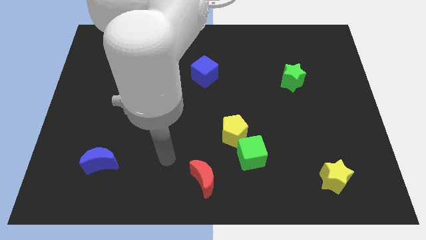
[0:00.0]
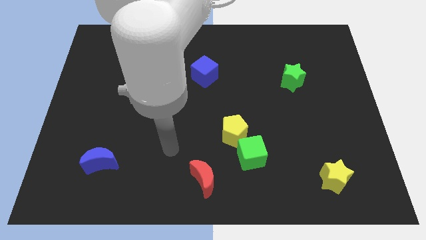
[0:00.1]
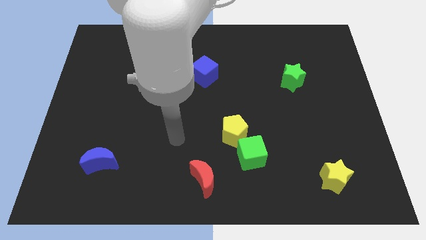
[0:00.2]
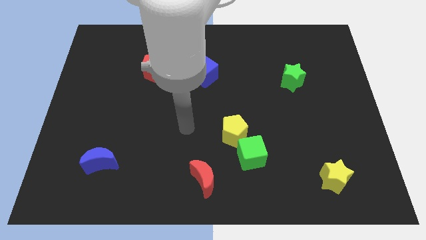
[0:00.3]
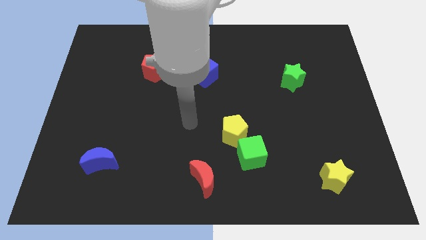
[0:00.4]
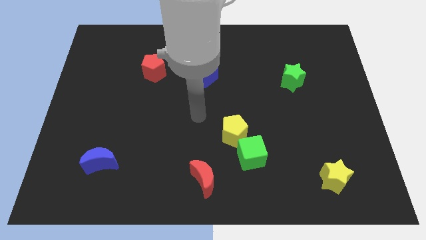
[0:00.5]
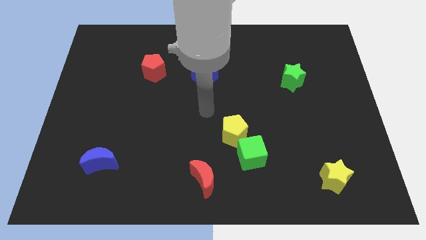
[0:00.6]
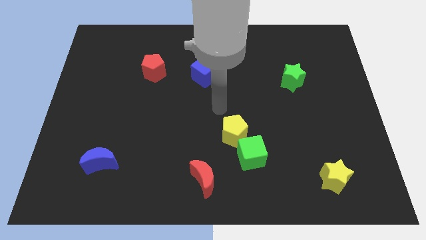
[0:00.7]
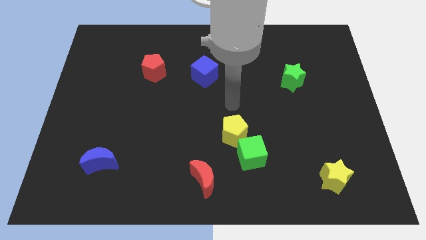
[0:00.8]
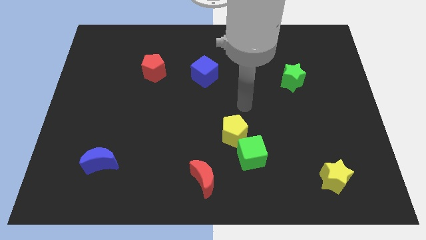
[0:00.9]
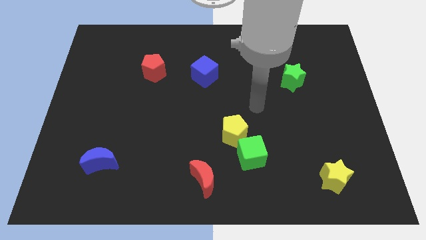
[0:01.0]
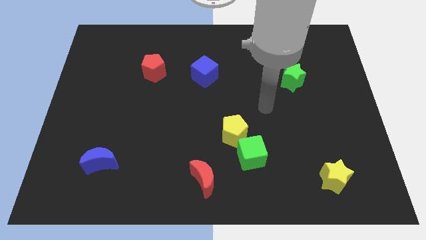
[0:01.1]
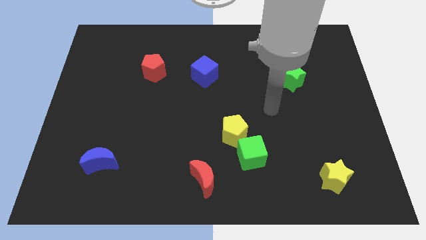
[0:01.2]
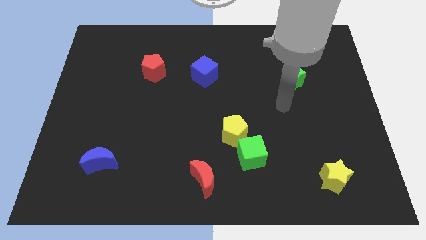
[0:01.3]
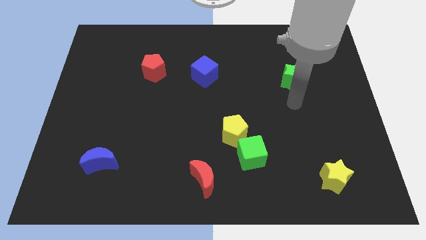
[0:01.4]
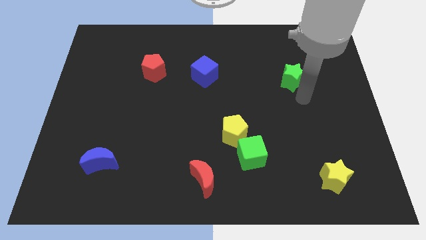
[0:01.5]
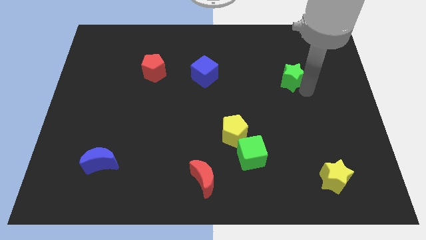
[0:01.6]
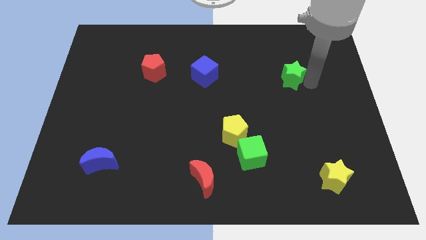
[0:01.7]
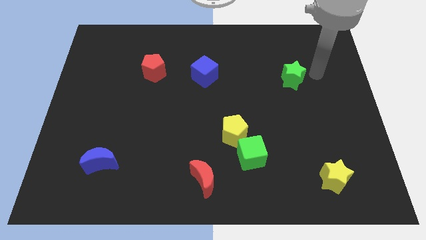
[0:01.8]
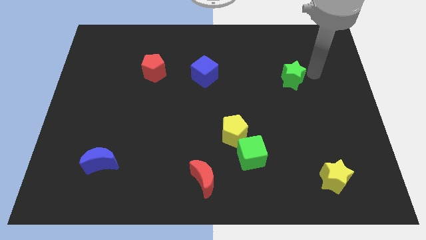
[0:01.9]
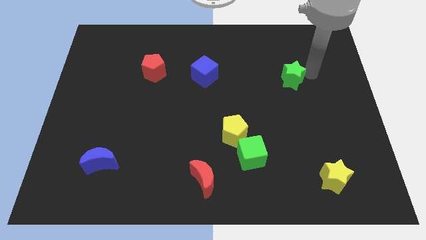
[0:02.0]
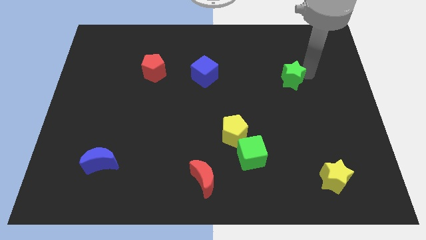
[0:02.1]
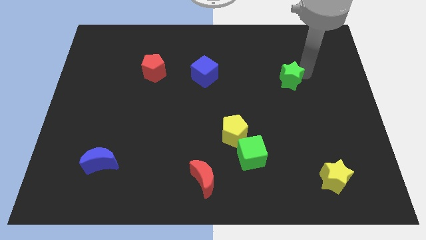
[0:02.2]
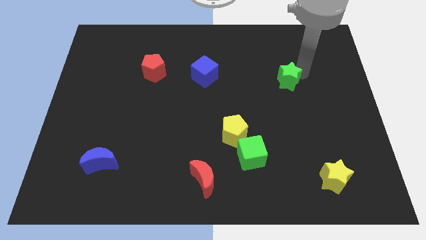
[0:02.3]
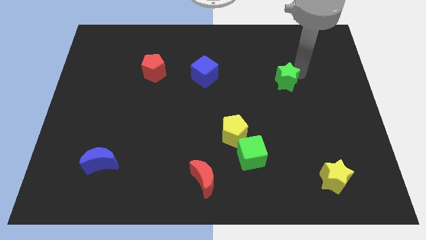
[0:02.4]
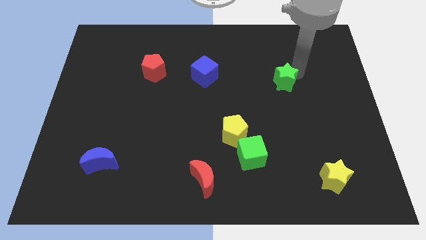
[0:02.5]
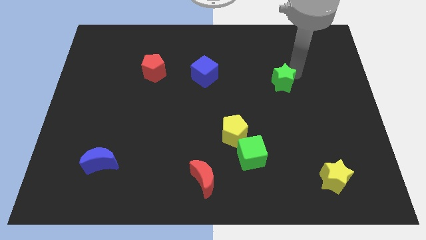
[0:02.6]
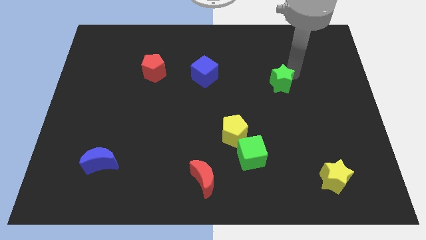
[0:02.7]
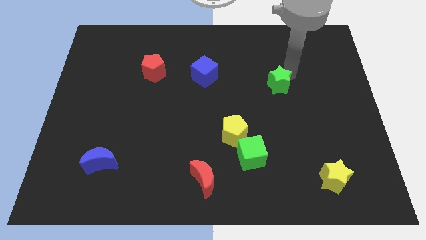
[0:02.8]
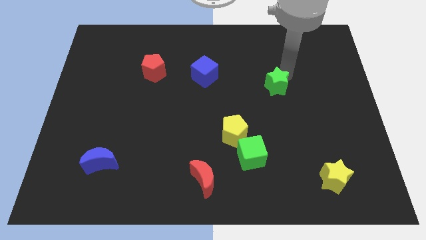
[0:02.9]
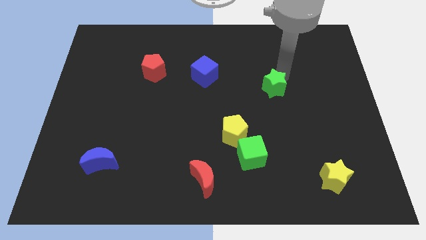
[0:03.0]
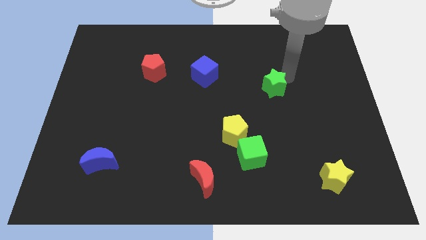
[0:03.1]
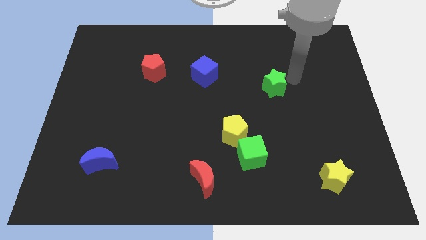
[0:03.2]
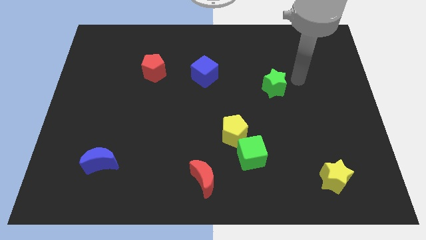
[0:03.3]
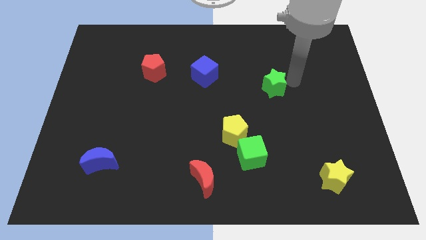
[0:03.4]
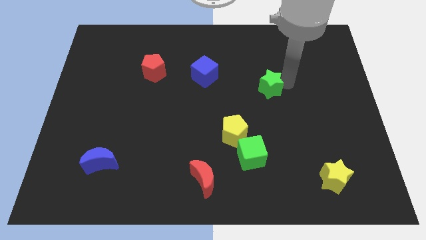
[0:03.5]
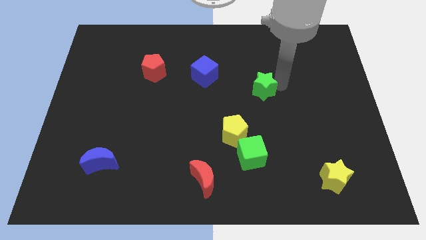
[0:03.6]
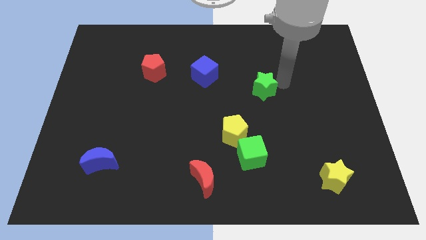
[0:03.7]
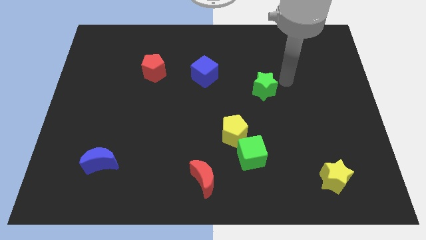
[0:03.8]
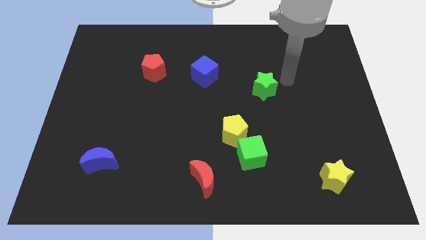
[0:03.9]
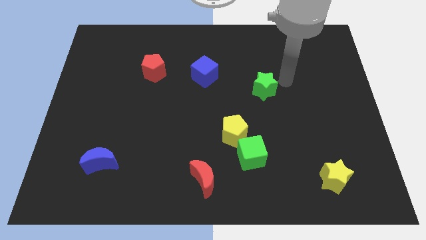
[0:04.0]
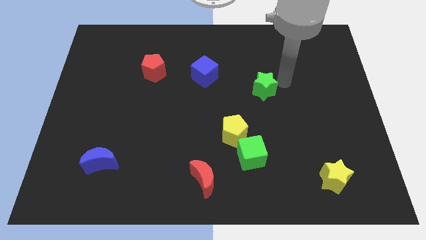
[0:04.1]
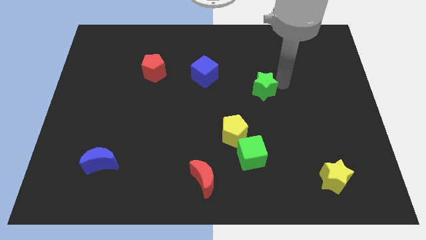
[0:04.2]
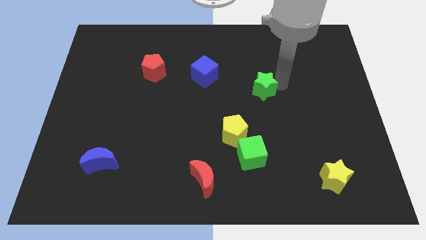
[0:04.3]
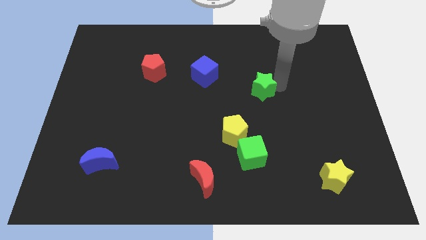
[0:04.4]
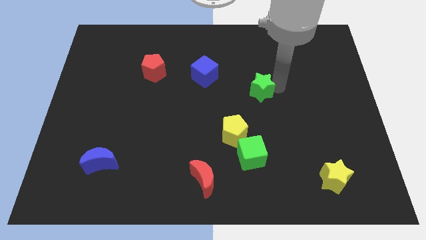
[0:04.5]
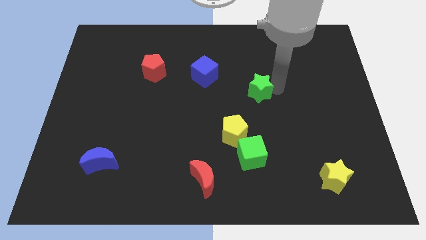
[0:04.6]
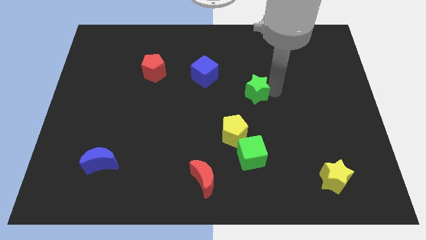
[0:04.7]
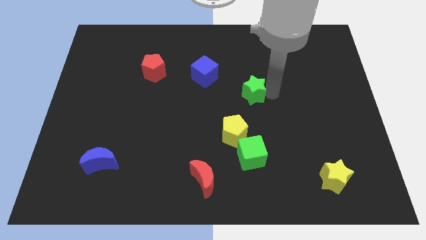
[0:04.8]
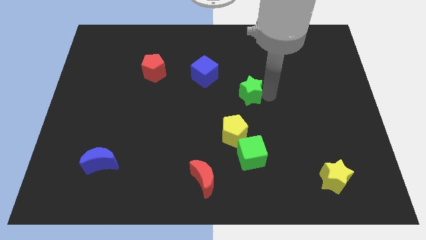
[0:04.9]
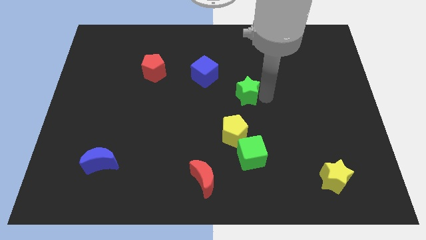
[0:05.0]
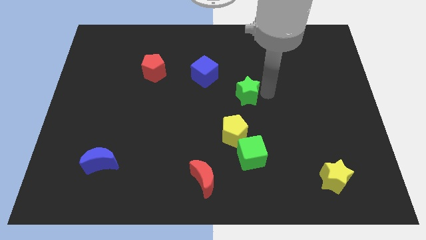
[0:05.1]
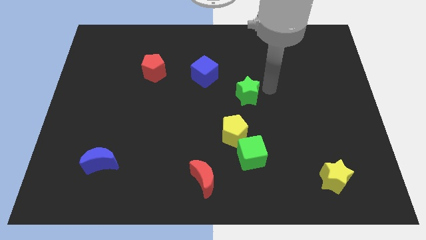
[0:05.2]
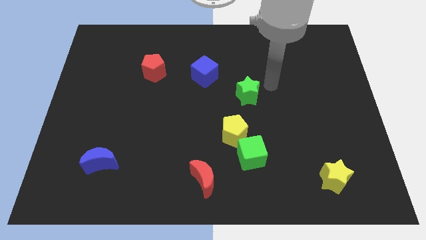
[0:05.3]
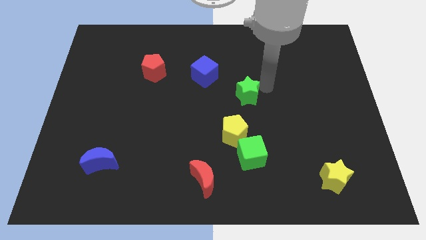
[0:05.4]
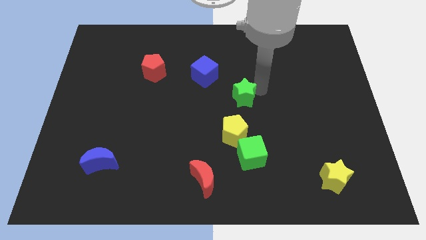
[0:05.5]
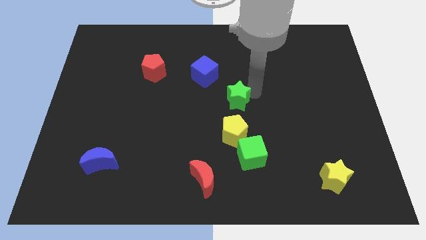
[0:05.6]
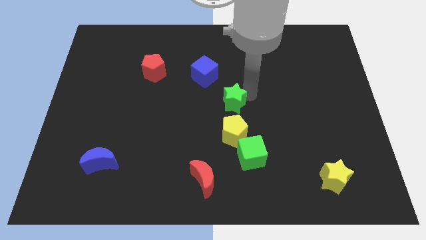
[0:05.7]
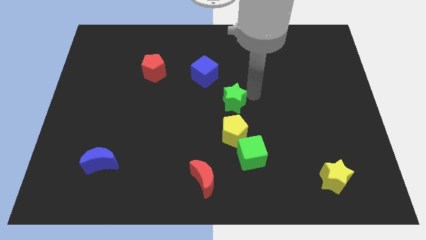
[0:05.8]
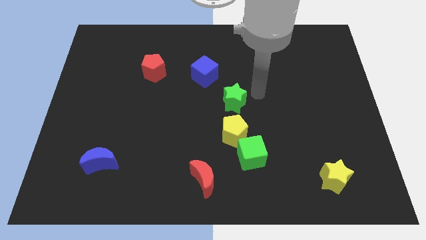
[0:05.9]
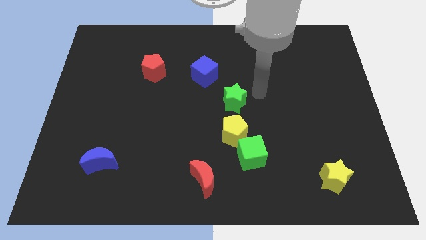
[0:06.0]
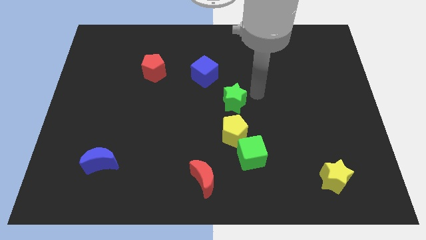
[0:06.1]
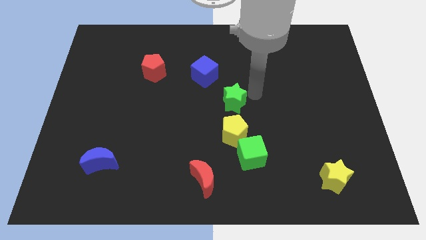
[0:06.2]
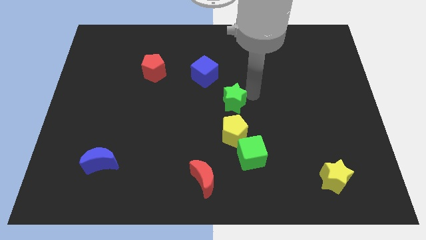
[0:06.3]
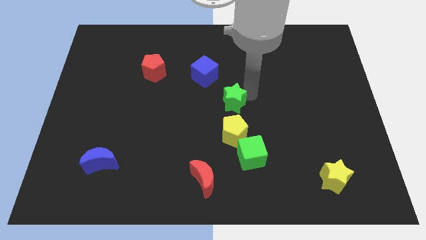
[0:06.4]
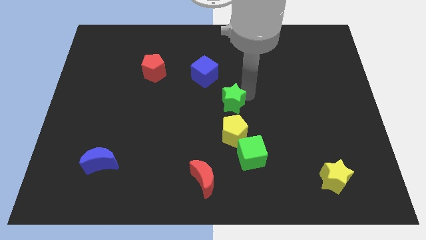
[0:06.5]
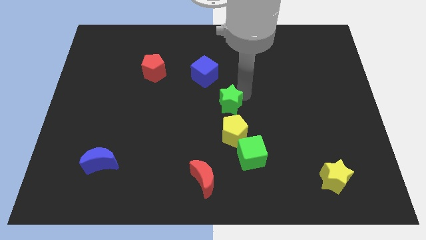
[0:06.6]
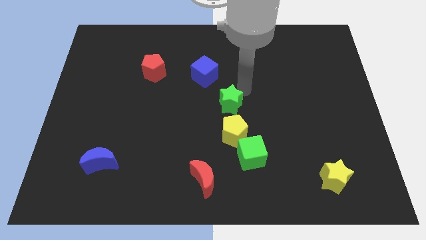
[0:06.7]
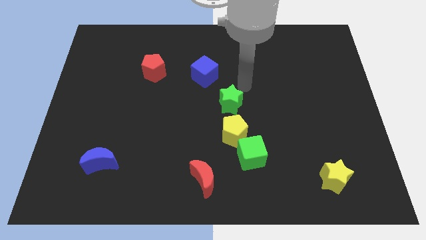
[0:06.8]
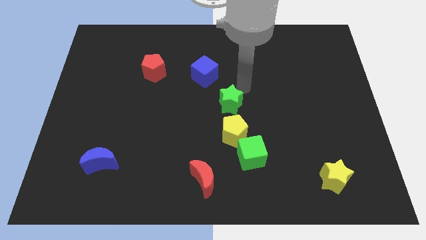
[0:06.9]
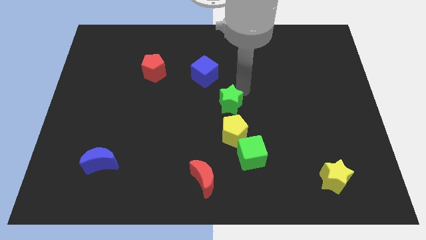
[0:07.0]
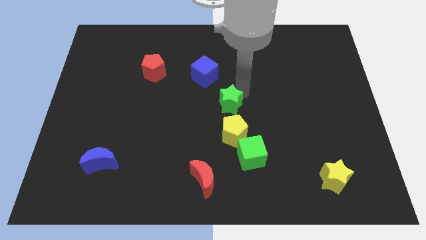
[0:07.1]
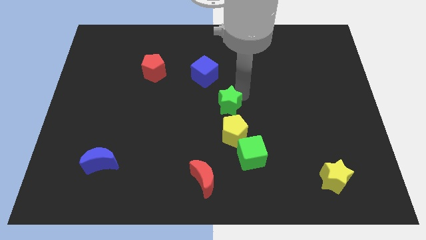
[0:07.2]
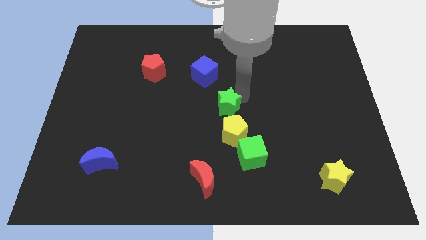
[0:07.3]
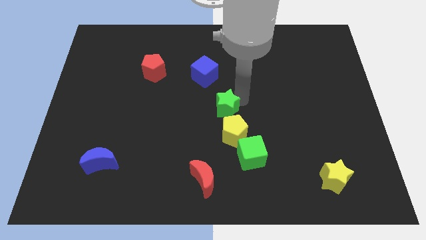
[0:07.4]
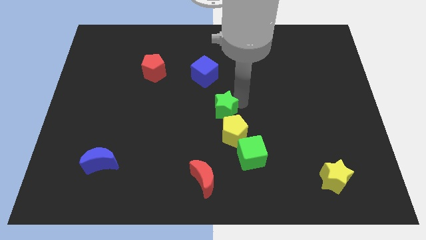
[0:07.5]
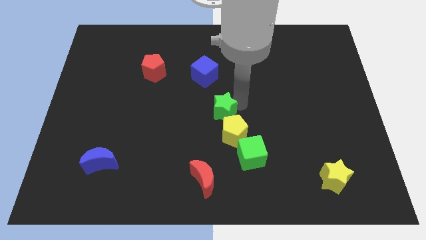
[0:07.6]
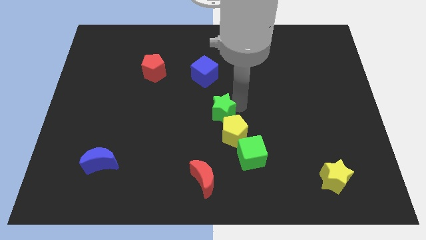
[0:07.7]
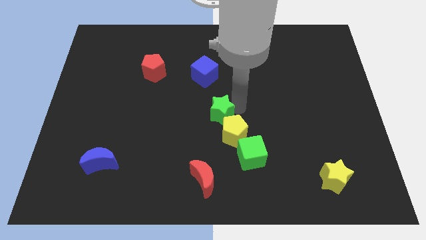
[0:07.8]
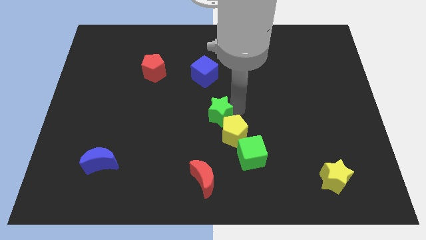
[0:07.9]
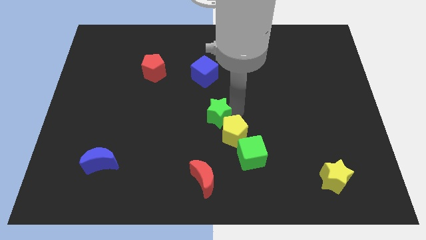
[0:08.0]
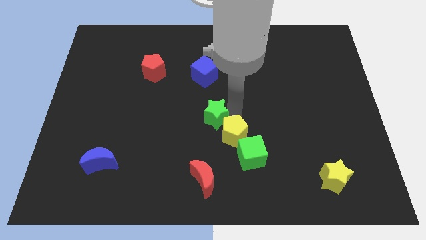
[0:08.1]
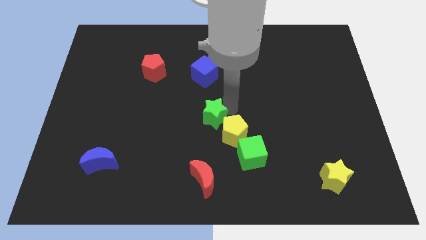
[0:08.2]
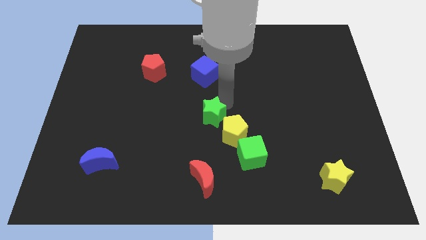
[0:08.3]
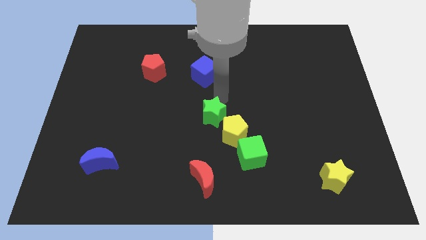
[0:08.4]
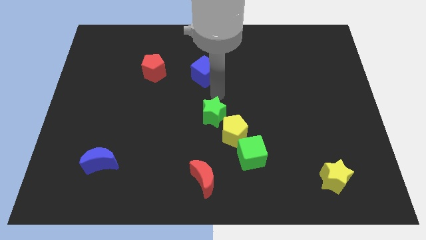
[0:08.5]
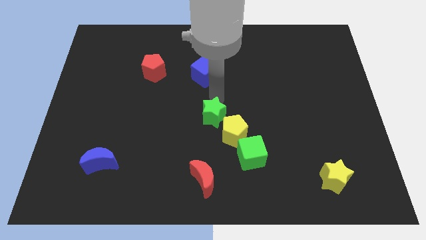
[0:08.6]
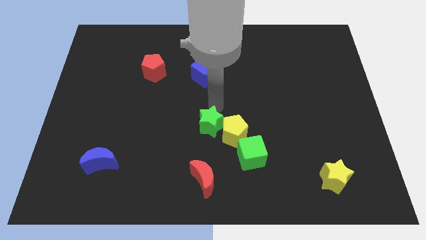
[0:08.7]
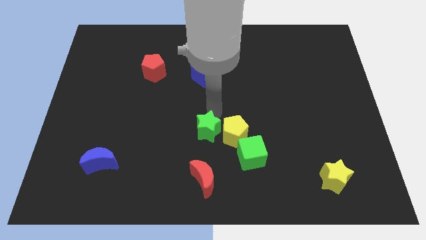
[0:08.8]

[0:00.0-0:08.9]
push the green star to the bottom left side of the yellow pentagon
